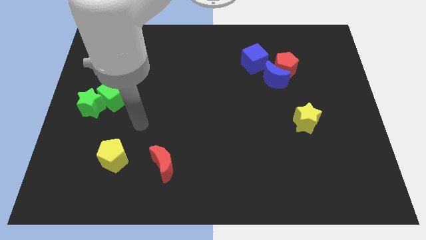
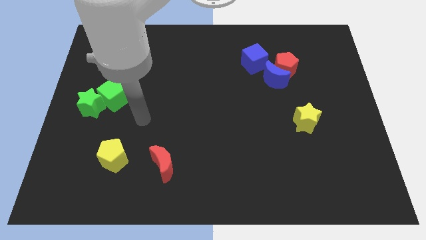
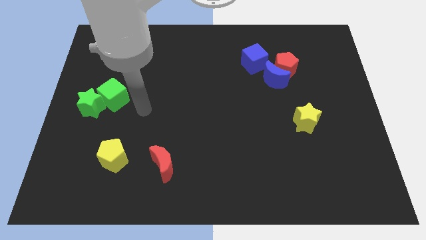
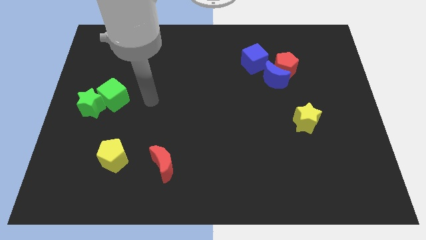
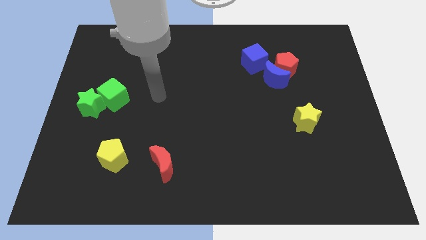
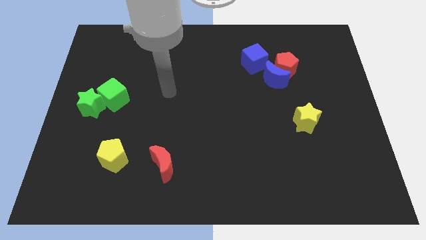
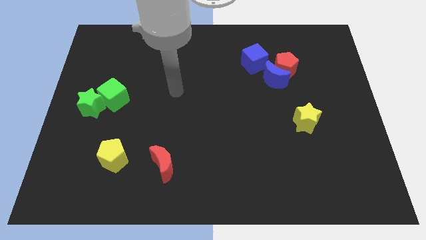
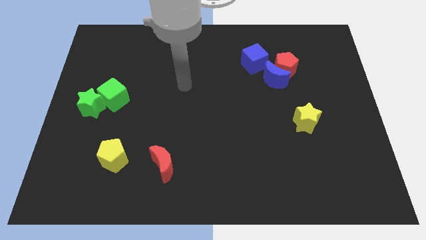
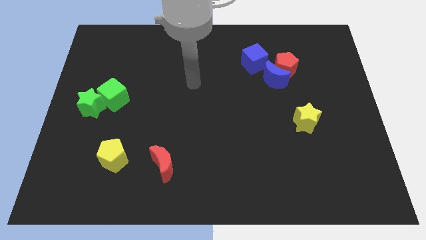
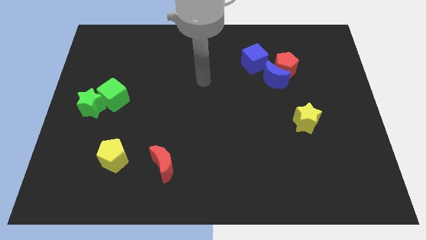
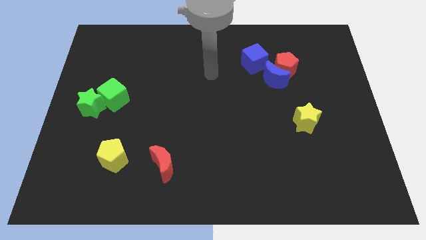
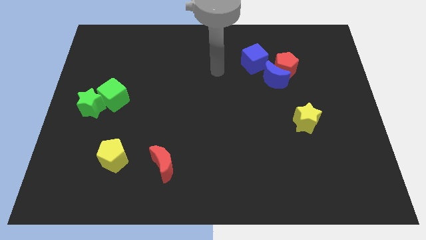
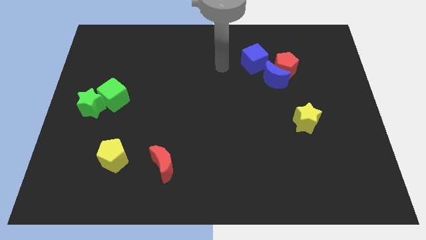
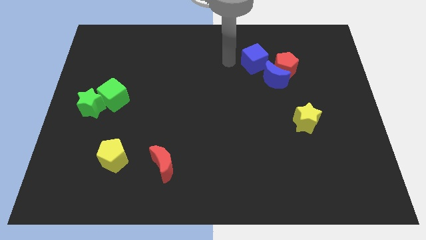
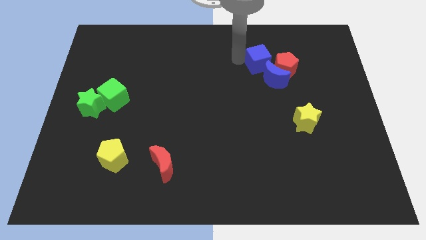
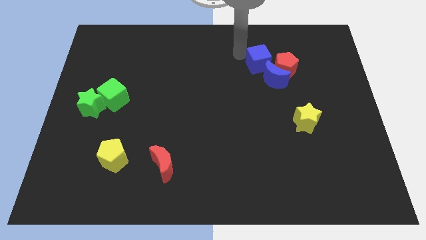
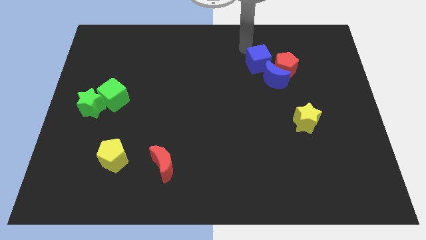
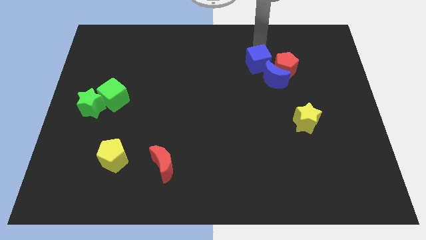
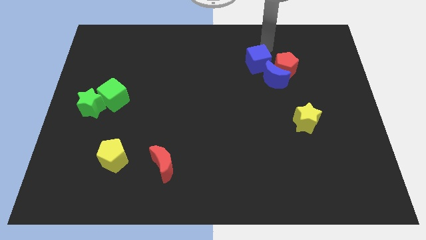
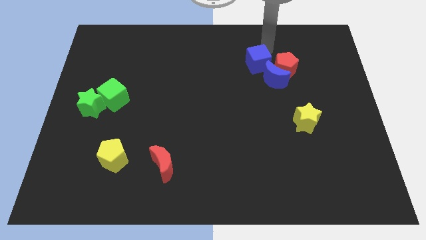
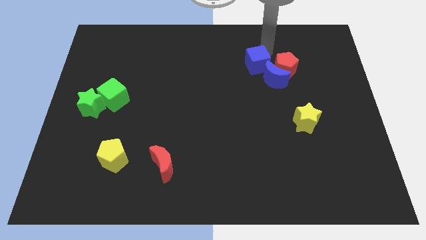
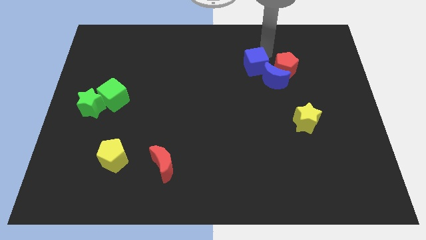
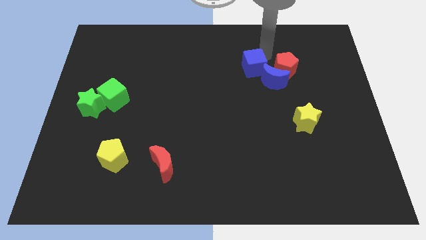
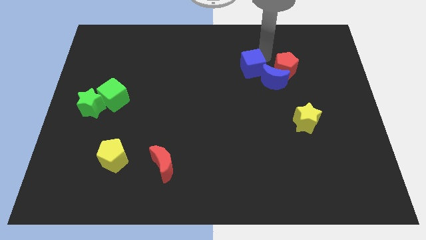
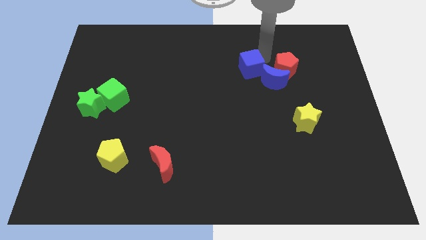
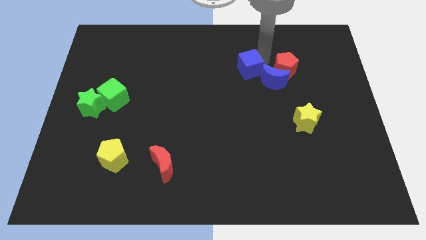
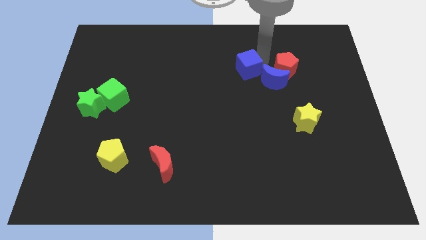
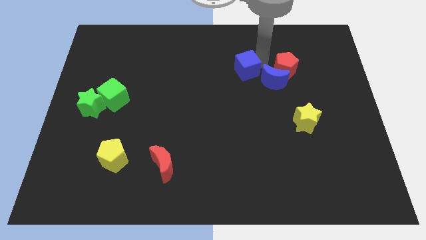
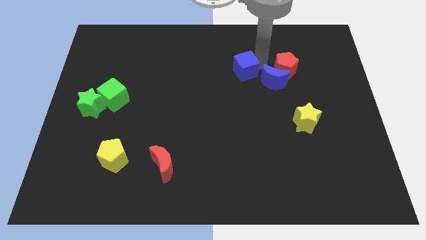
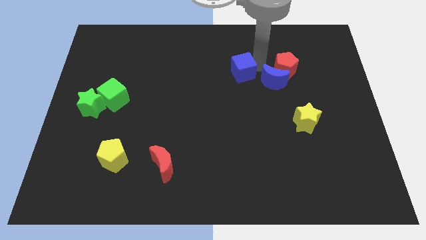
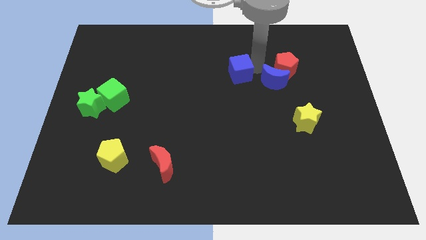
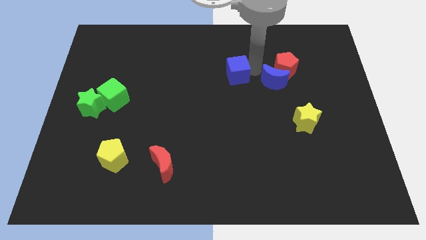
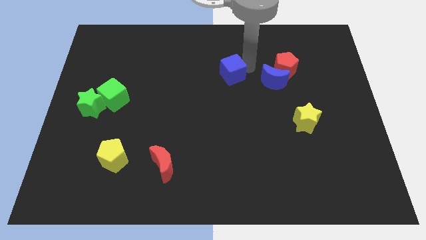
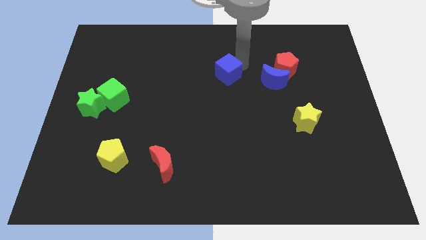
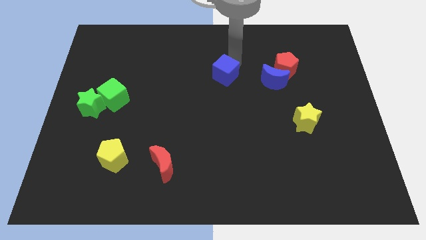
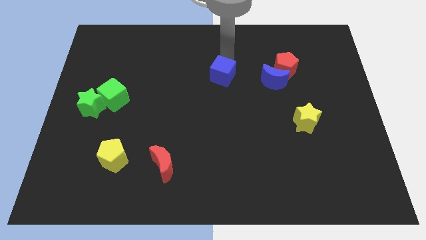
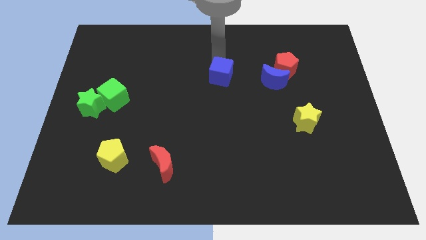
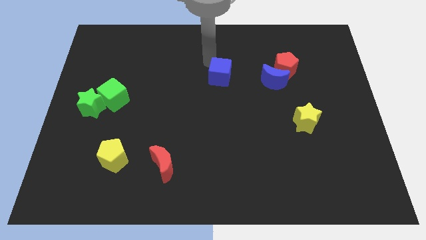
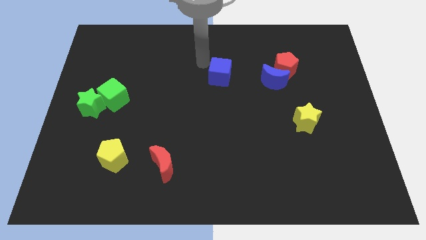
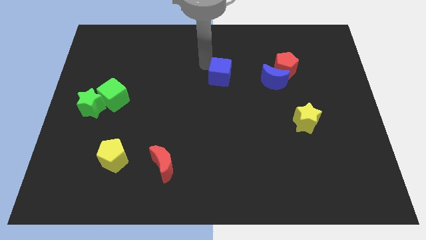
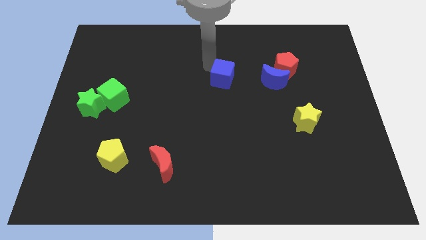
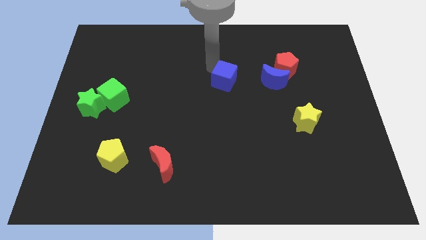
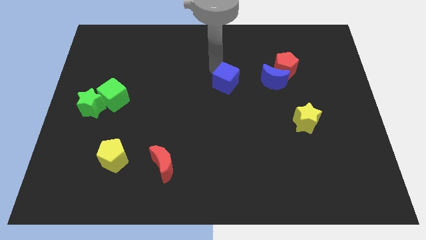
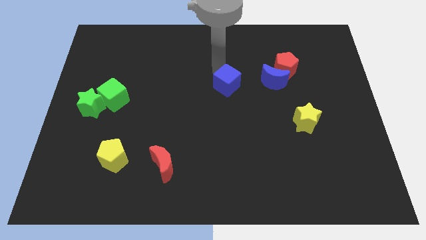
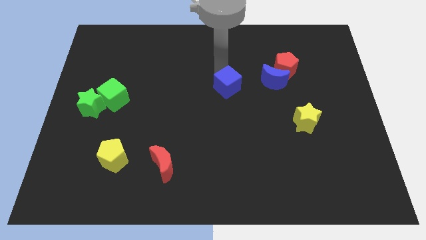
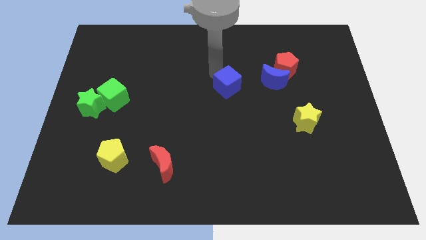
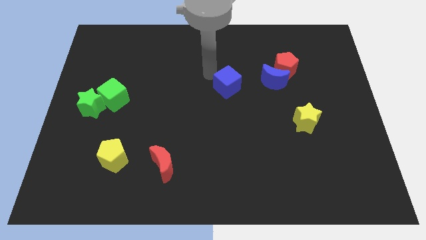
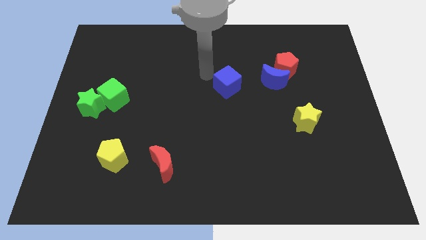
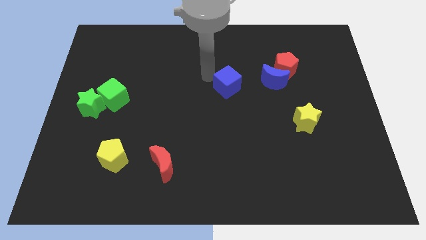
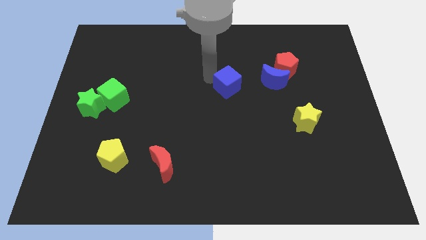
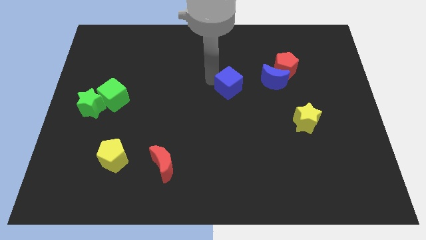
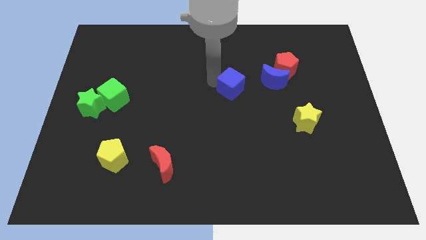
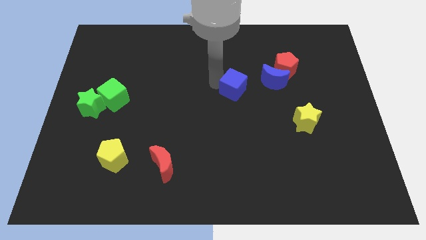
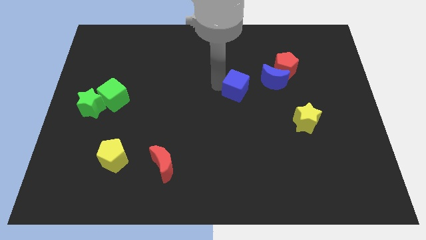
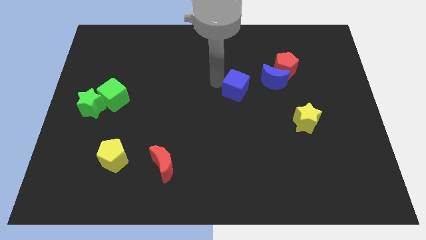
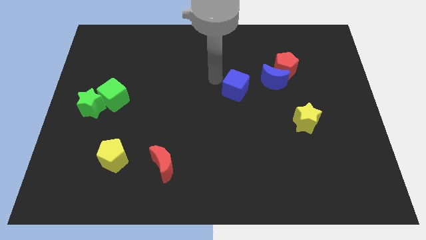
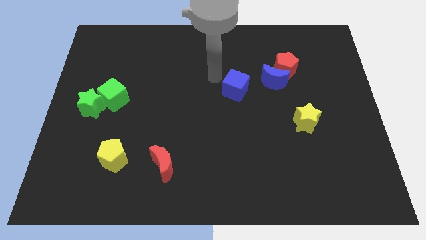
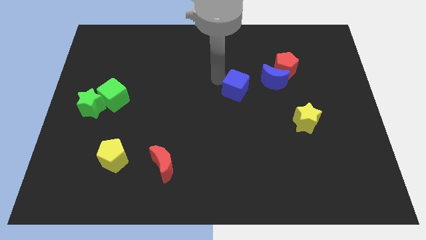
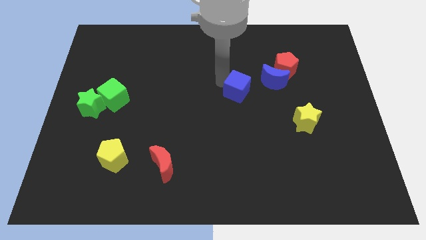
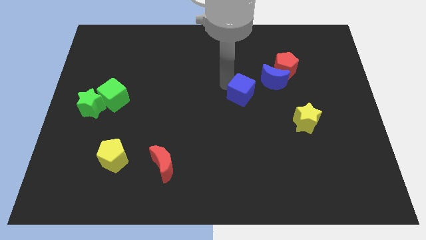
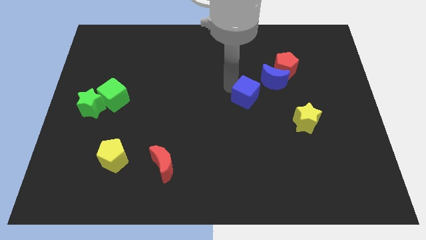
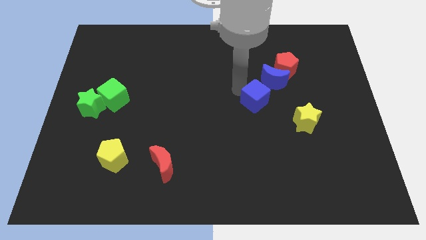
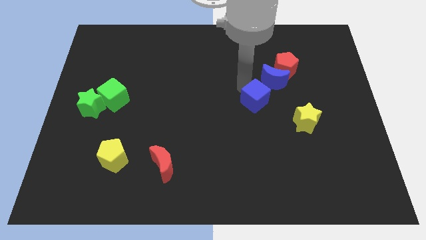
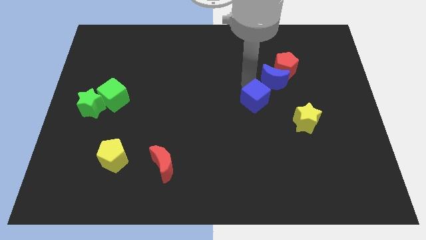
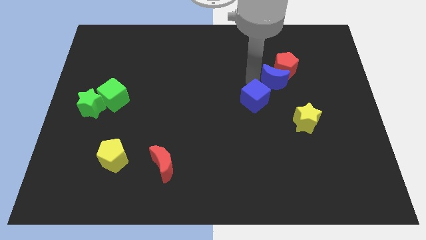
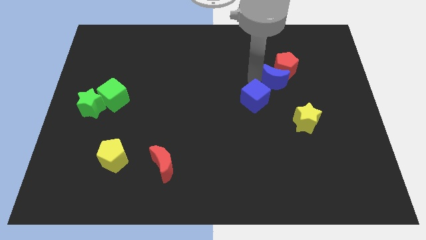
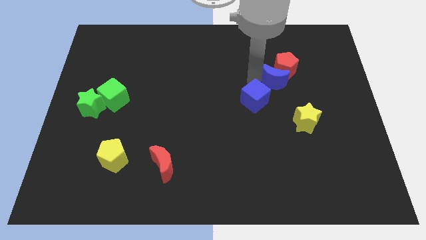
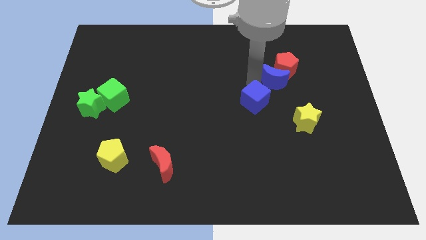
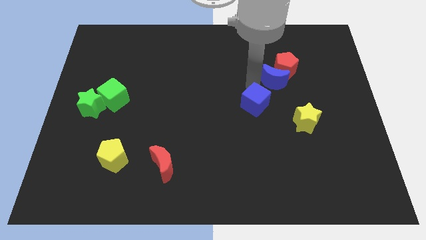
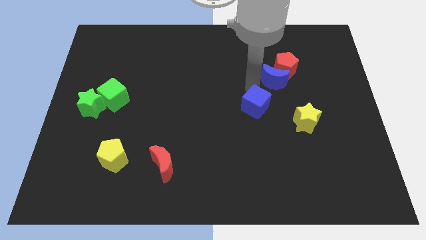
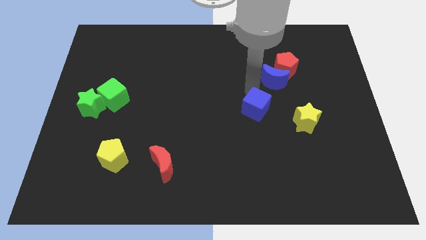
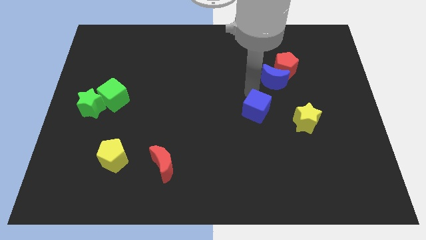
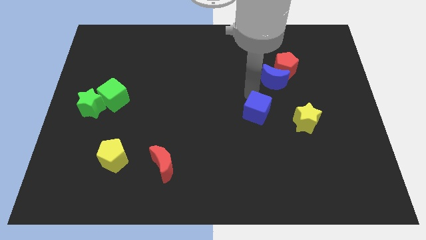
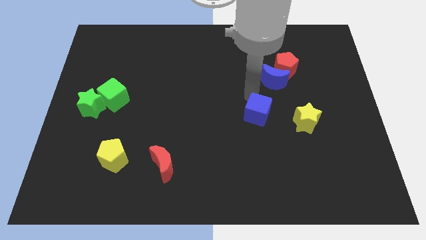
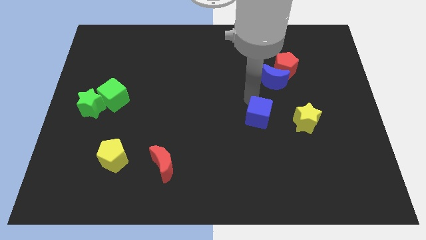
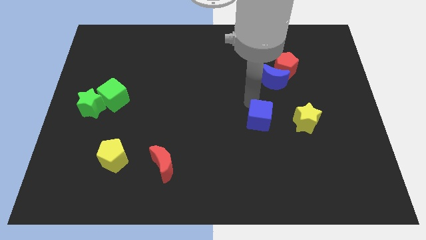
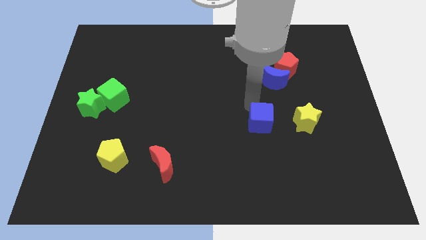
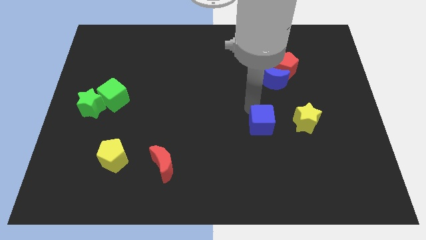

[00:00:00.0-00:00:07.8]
push the blue cube downwards
